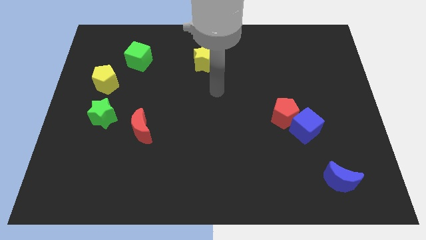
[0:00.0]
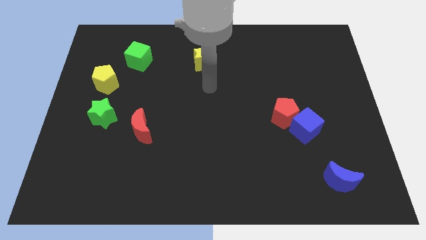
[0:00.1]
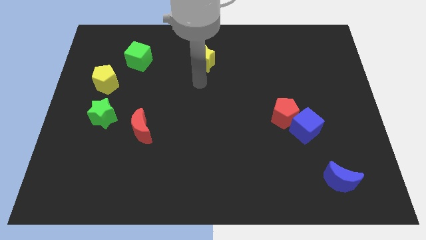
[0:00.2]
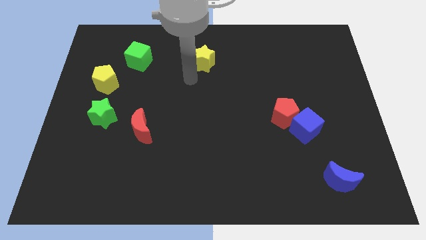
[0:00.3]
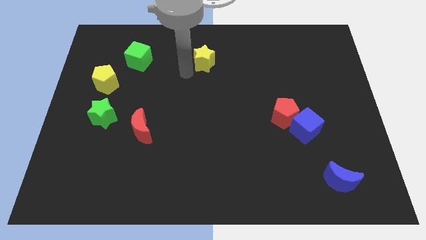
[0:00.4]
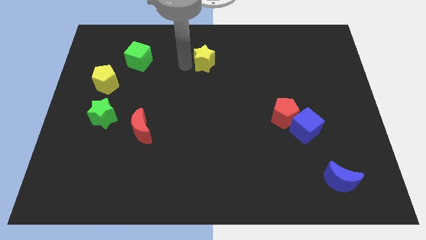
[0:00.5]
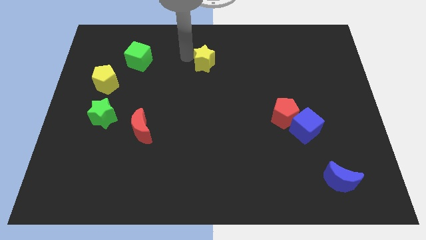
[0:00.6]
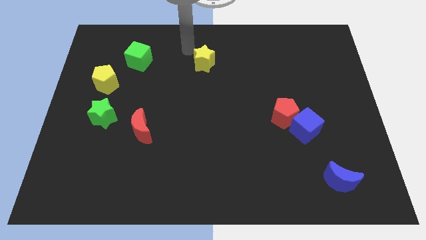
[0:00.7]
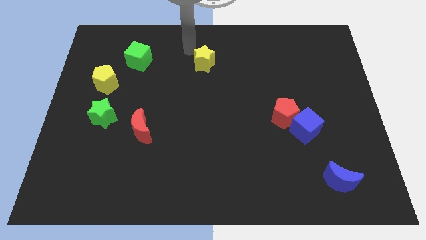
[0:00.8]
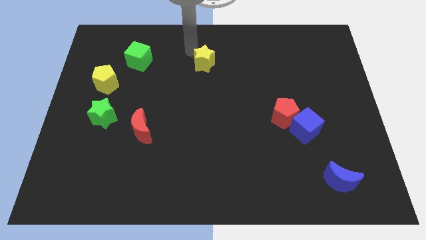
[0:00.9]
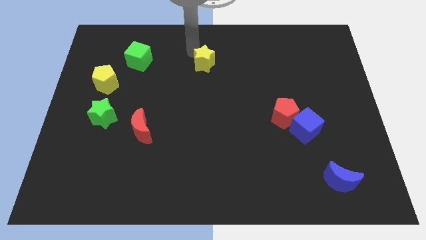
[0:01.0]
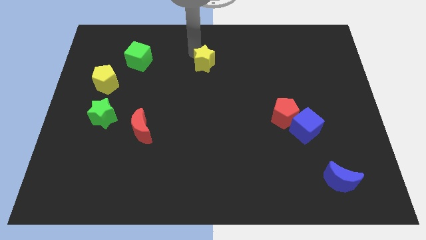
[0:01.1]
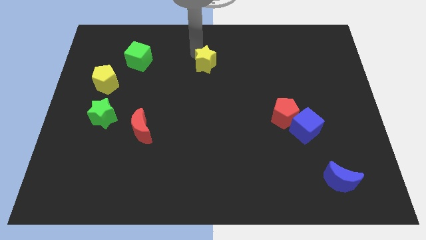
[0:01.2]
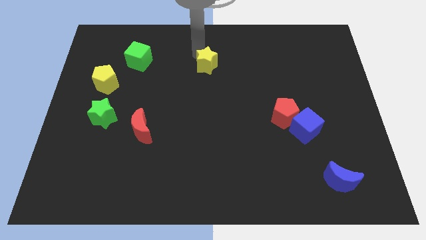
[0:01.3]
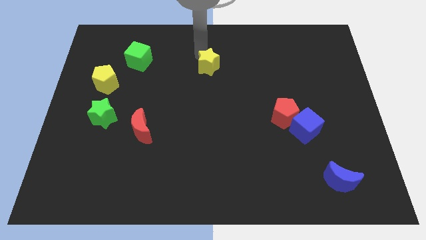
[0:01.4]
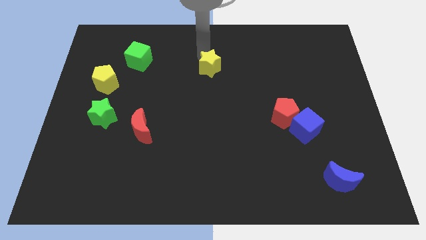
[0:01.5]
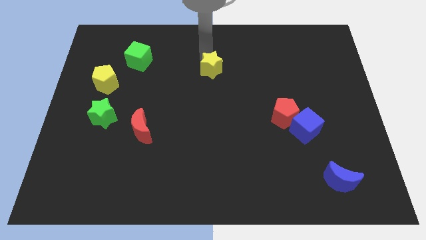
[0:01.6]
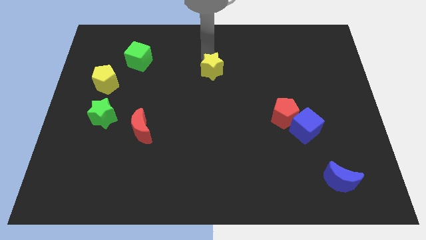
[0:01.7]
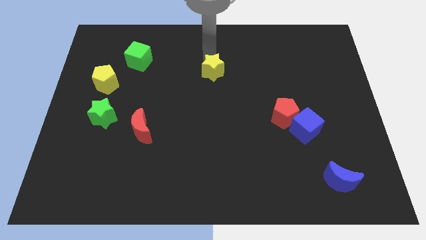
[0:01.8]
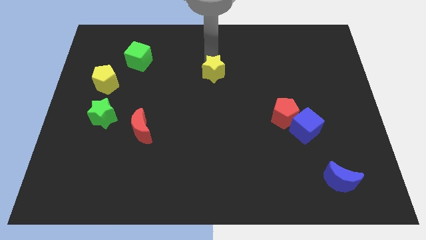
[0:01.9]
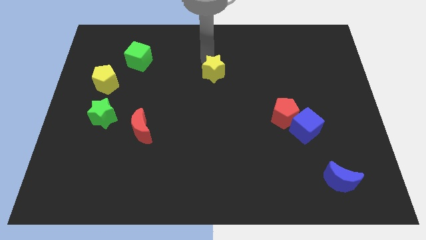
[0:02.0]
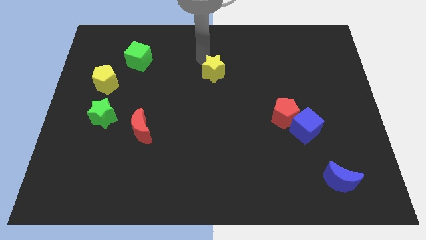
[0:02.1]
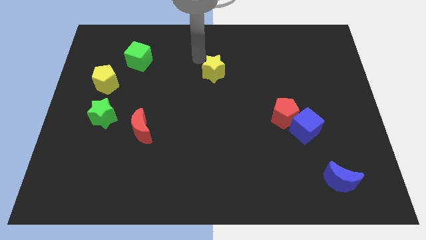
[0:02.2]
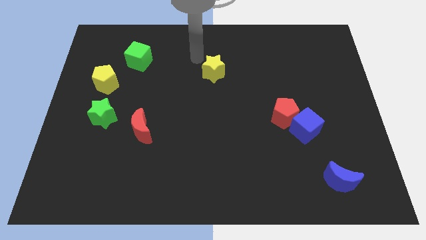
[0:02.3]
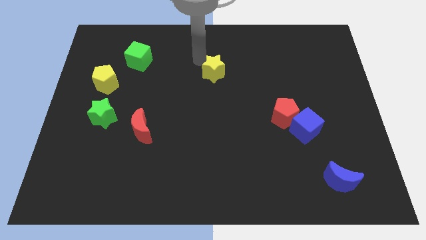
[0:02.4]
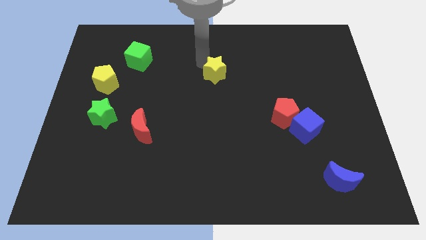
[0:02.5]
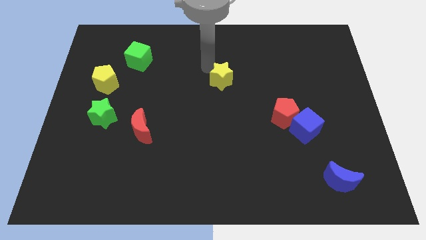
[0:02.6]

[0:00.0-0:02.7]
slightly move the yellow star diagonally down and to the right

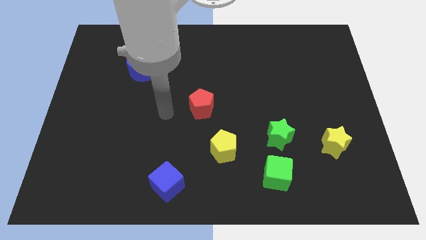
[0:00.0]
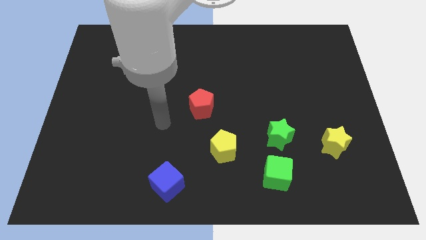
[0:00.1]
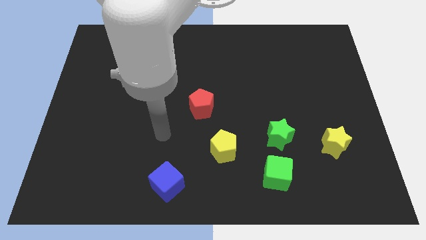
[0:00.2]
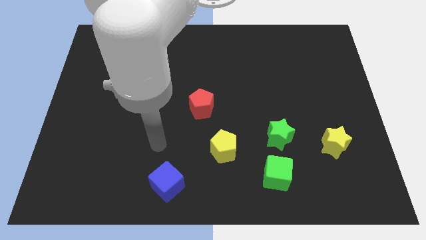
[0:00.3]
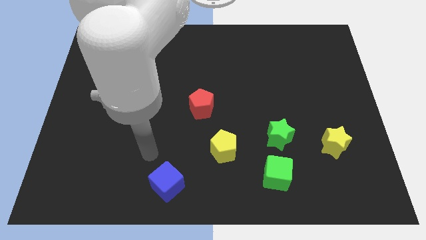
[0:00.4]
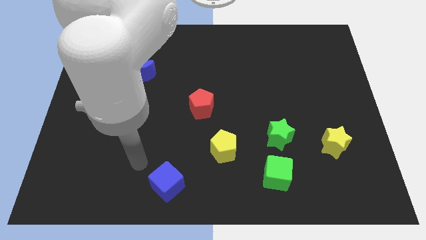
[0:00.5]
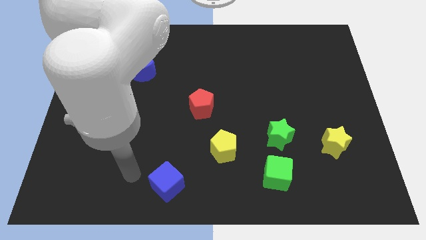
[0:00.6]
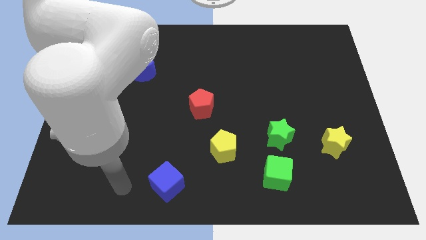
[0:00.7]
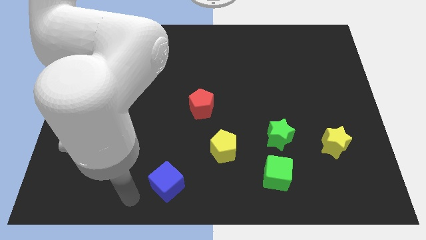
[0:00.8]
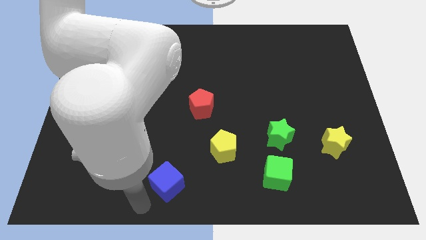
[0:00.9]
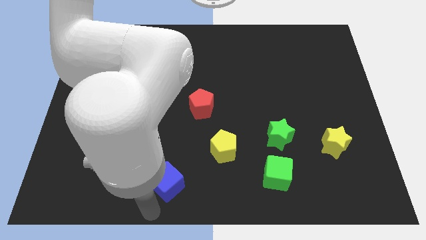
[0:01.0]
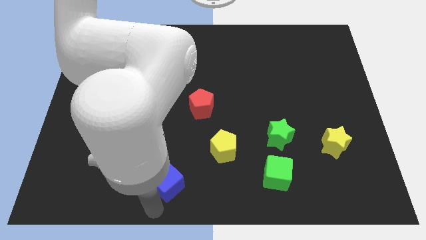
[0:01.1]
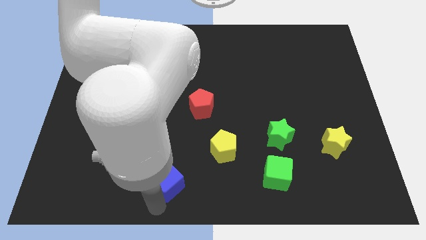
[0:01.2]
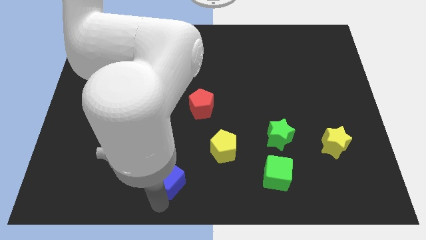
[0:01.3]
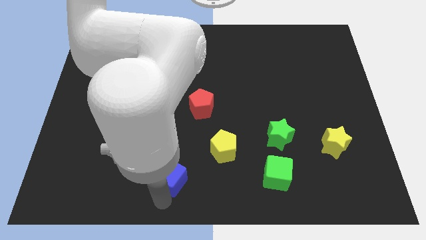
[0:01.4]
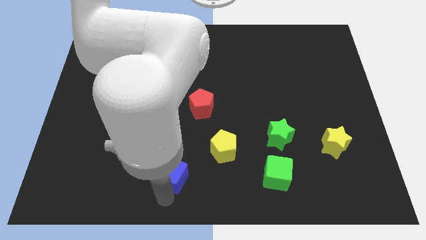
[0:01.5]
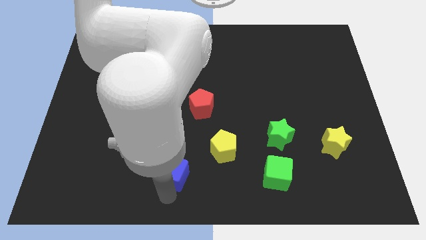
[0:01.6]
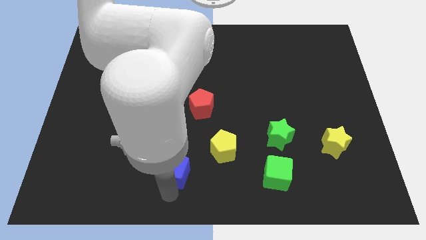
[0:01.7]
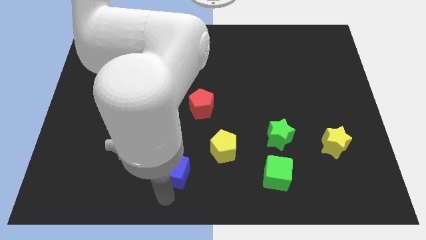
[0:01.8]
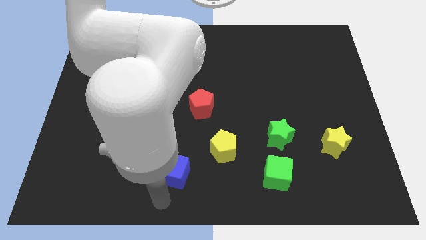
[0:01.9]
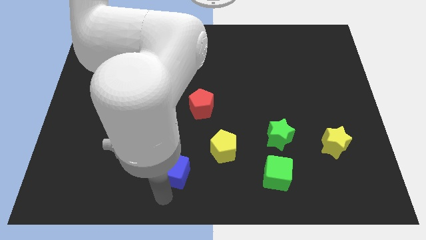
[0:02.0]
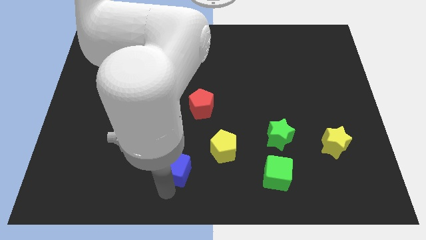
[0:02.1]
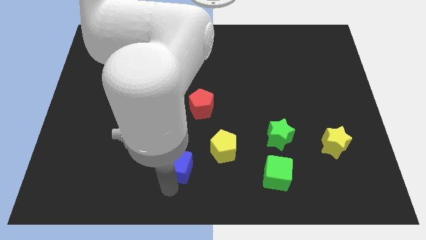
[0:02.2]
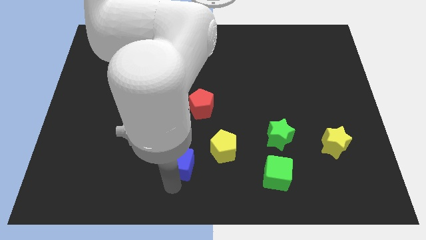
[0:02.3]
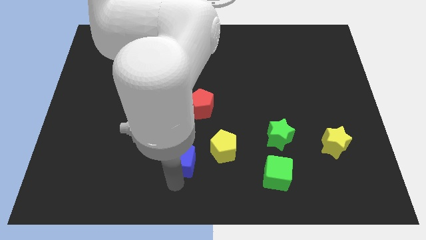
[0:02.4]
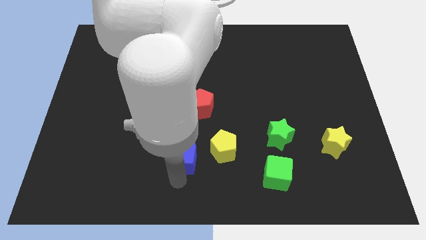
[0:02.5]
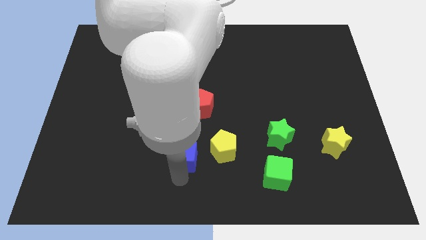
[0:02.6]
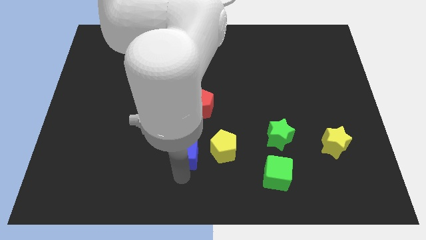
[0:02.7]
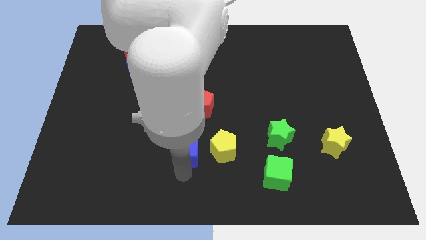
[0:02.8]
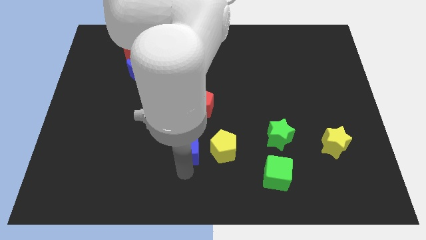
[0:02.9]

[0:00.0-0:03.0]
slightly move the blue cube up

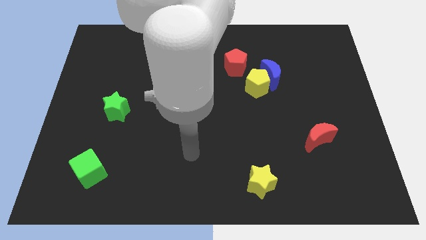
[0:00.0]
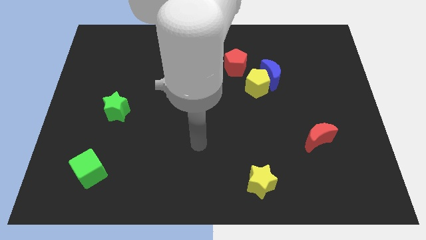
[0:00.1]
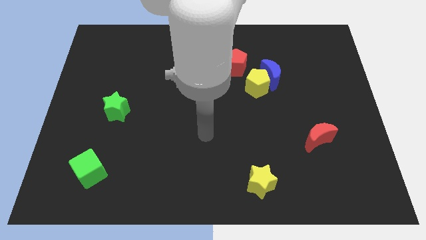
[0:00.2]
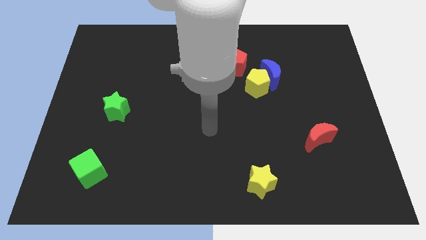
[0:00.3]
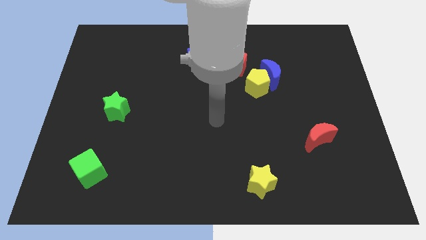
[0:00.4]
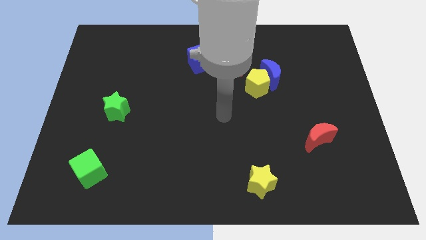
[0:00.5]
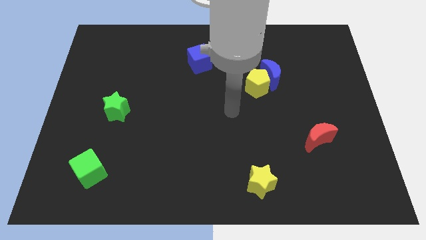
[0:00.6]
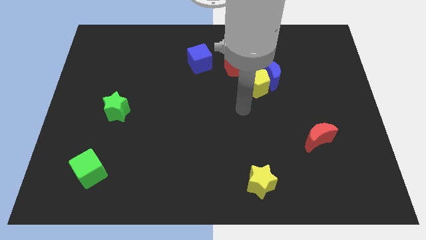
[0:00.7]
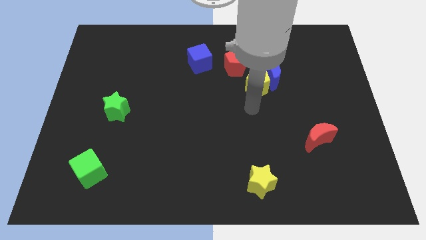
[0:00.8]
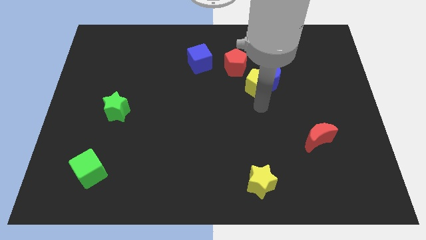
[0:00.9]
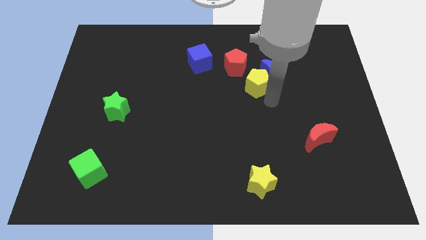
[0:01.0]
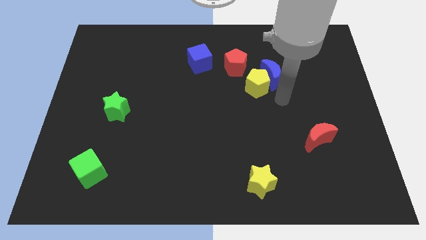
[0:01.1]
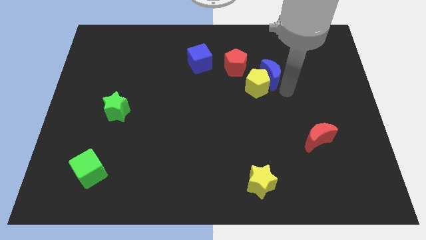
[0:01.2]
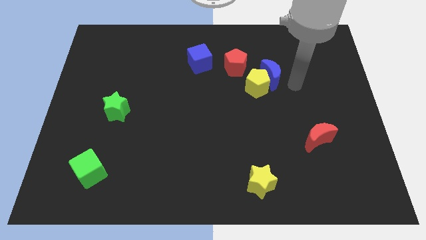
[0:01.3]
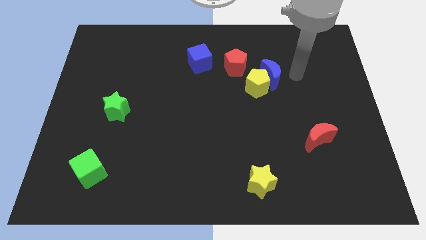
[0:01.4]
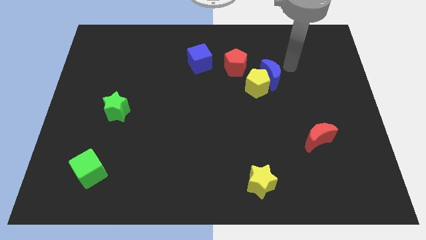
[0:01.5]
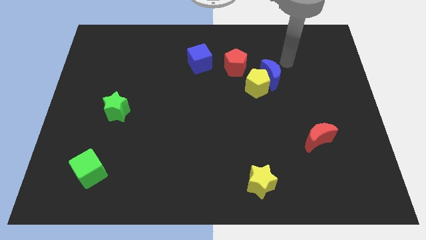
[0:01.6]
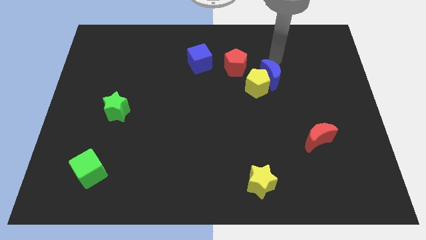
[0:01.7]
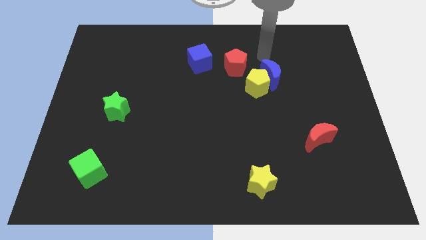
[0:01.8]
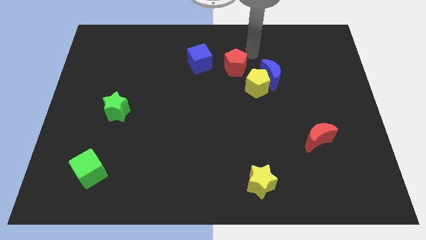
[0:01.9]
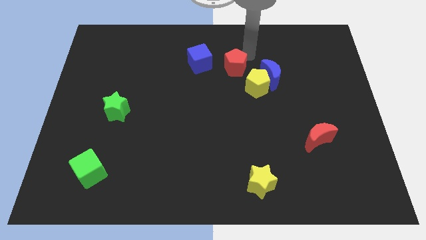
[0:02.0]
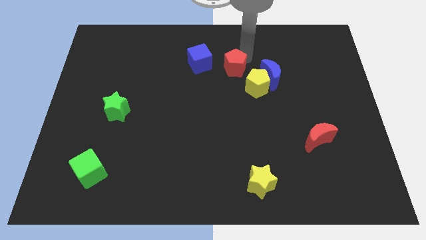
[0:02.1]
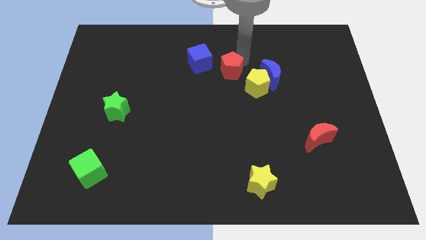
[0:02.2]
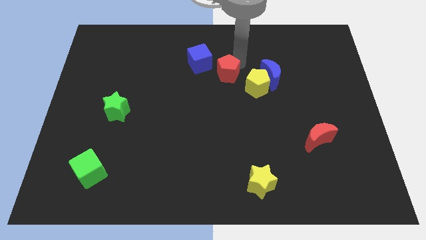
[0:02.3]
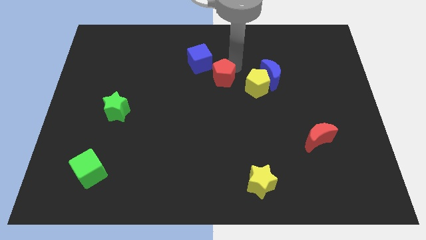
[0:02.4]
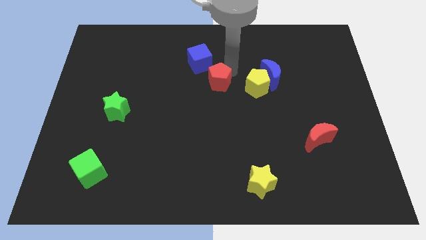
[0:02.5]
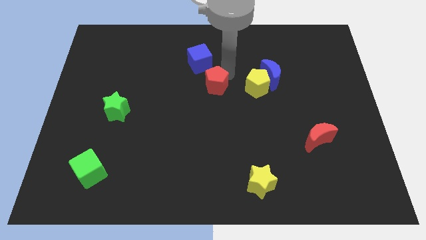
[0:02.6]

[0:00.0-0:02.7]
slide the red pentagon a little bit down and left
